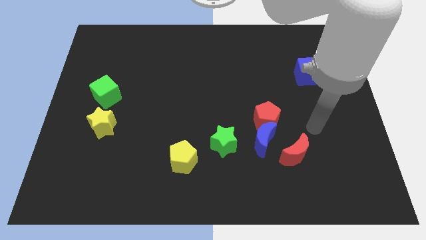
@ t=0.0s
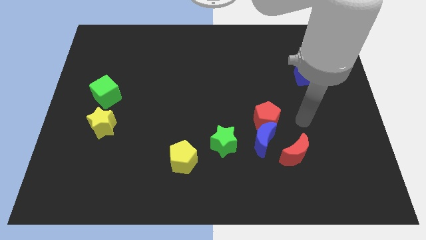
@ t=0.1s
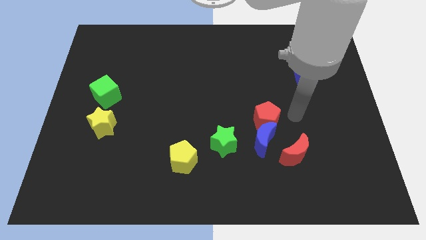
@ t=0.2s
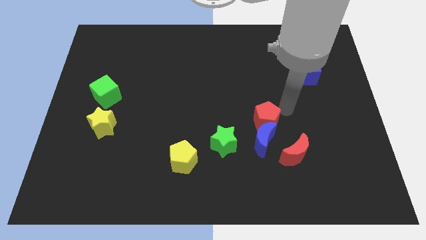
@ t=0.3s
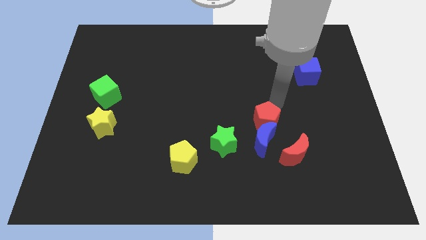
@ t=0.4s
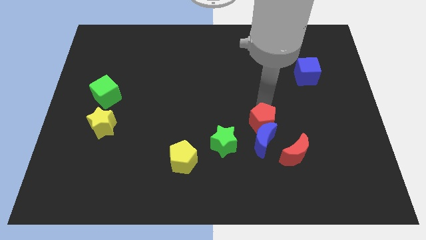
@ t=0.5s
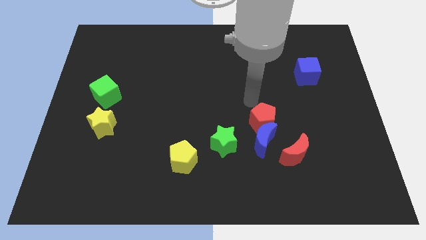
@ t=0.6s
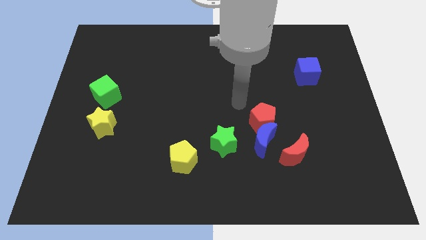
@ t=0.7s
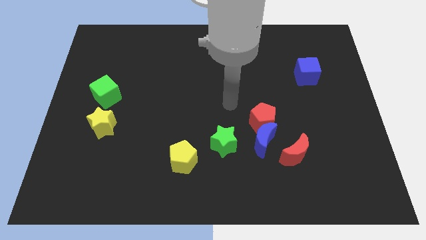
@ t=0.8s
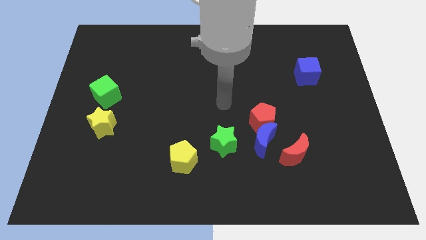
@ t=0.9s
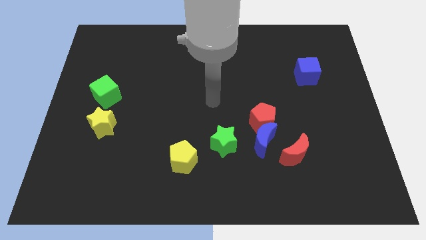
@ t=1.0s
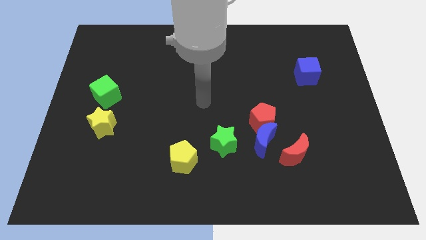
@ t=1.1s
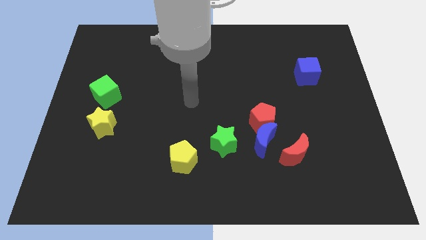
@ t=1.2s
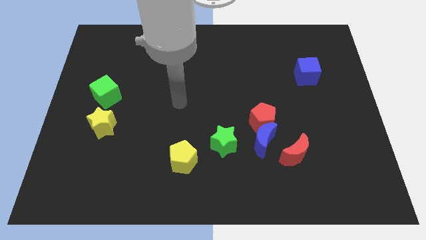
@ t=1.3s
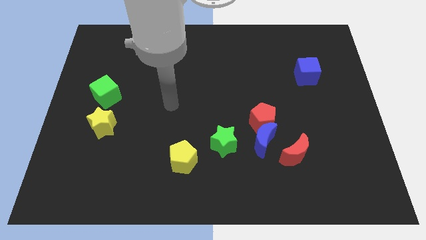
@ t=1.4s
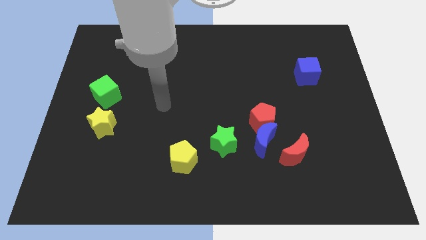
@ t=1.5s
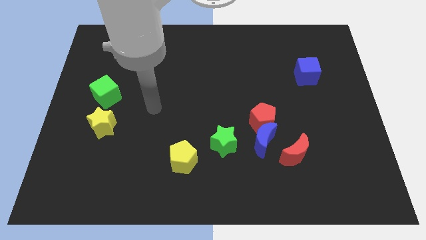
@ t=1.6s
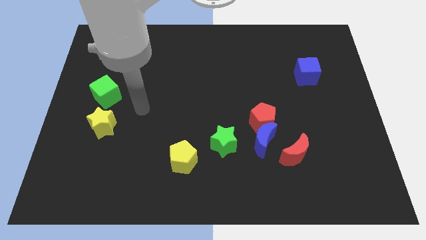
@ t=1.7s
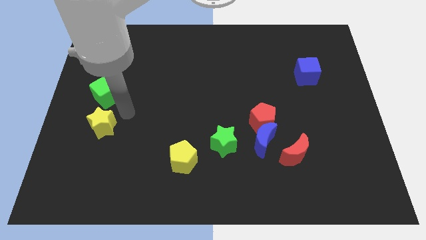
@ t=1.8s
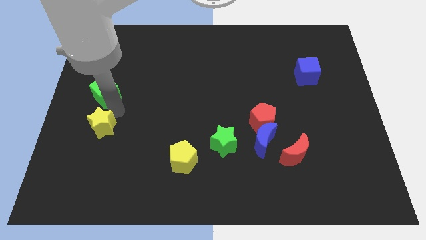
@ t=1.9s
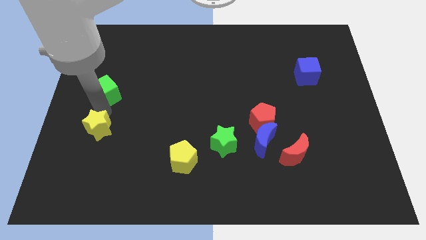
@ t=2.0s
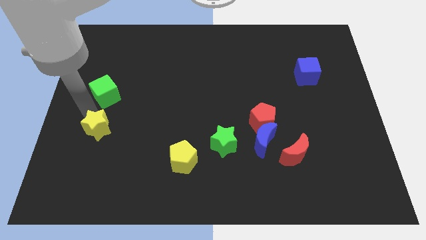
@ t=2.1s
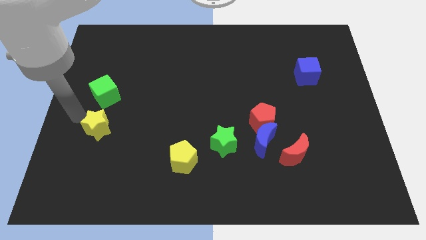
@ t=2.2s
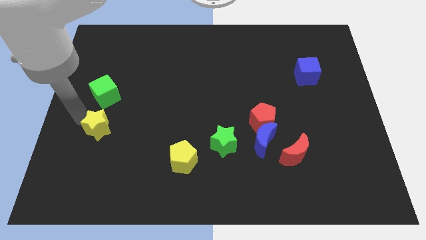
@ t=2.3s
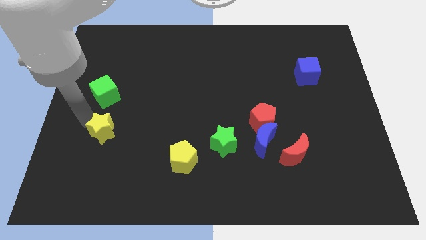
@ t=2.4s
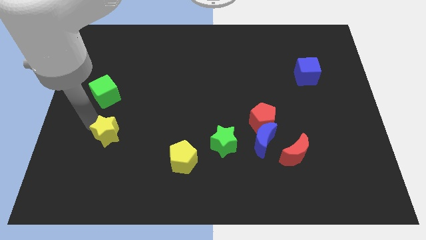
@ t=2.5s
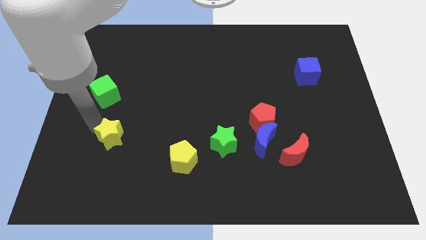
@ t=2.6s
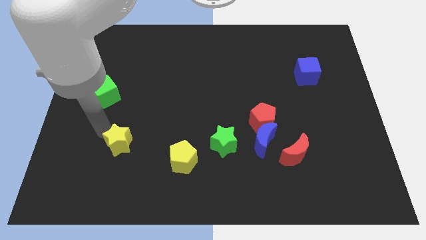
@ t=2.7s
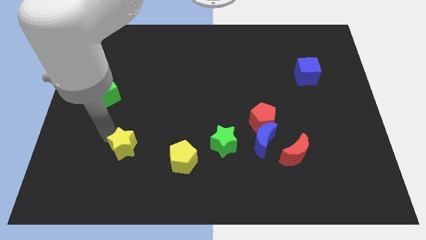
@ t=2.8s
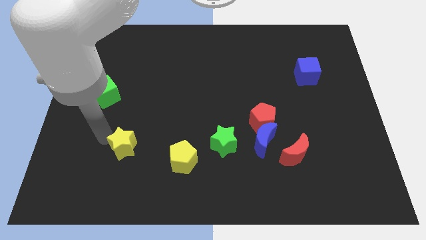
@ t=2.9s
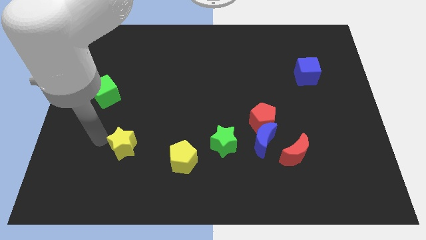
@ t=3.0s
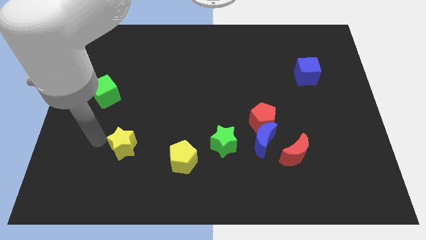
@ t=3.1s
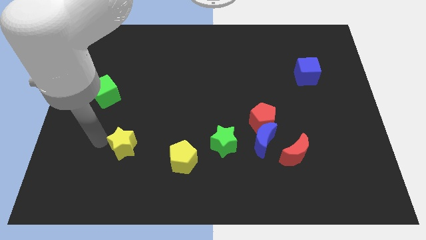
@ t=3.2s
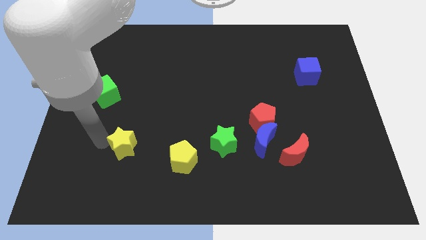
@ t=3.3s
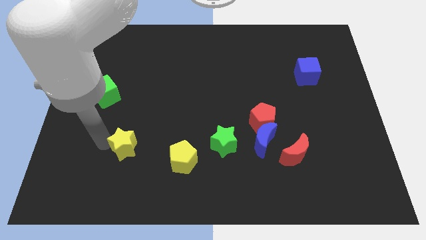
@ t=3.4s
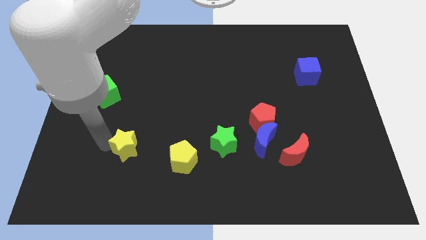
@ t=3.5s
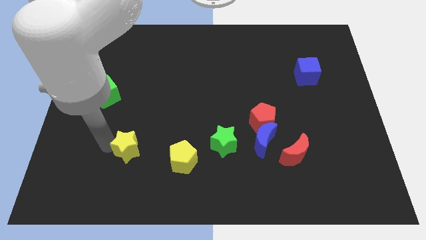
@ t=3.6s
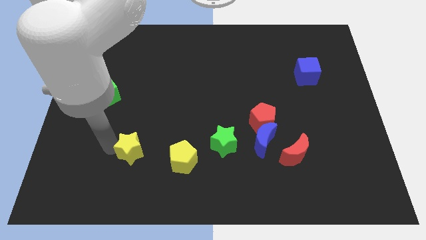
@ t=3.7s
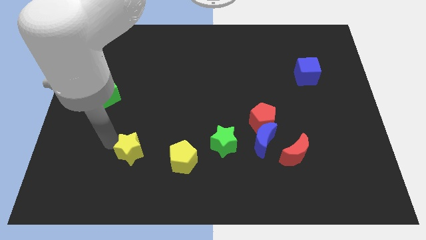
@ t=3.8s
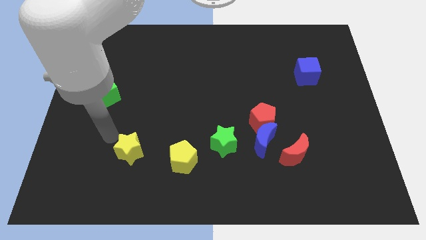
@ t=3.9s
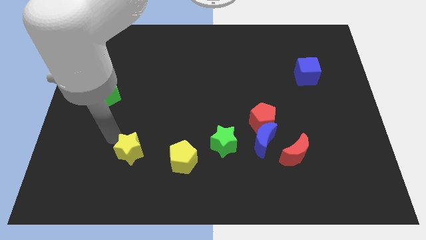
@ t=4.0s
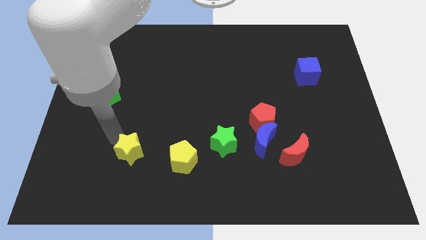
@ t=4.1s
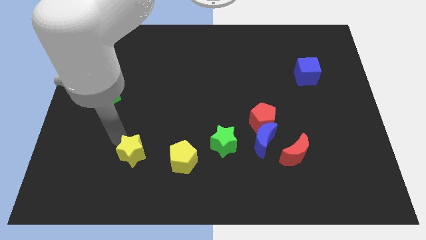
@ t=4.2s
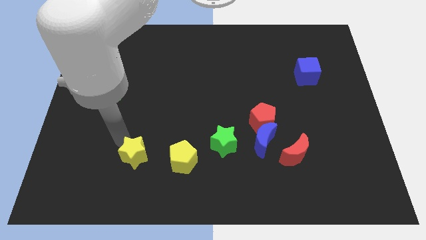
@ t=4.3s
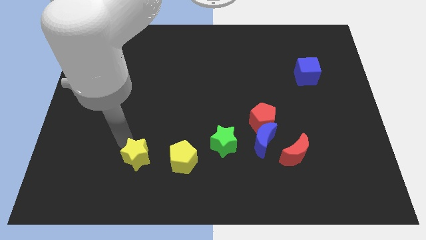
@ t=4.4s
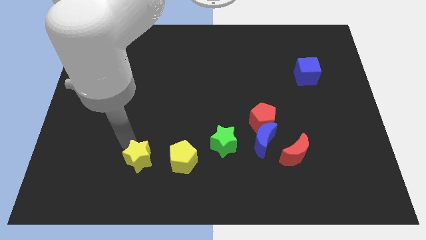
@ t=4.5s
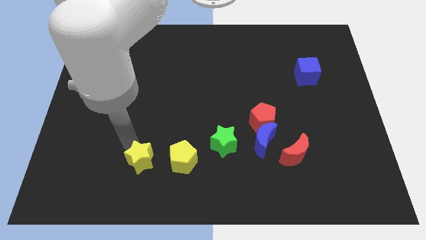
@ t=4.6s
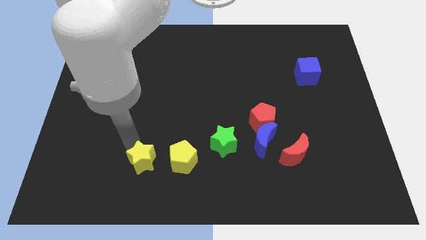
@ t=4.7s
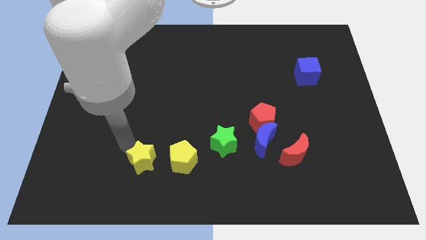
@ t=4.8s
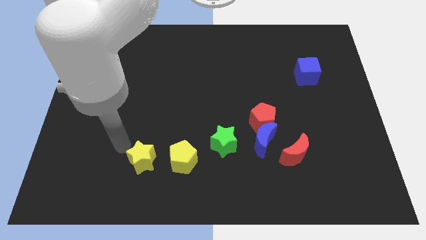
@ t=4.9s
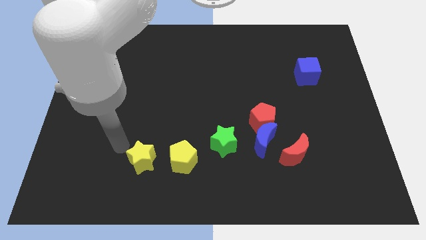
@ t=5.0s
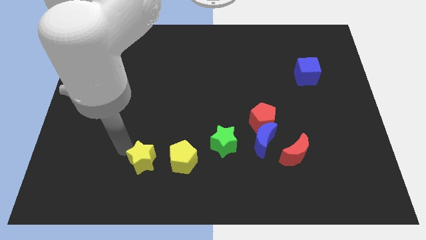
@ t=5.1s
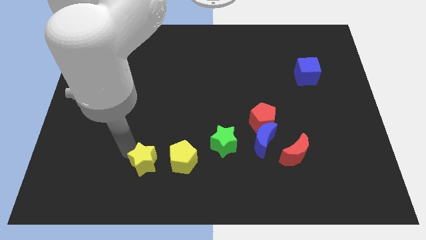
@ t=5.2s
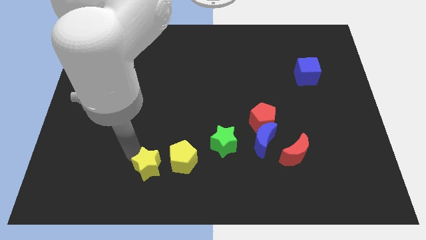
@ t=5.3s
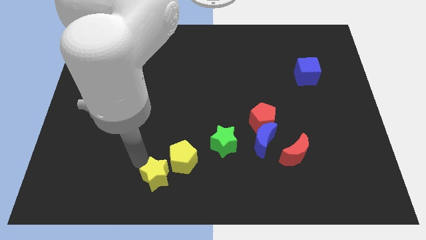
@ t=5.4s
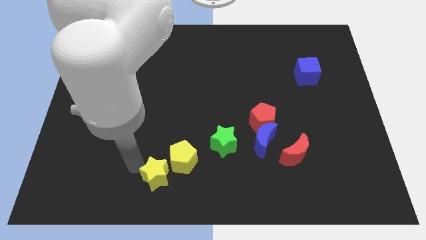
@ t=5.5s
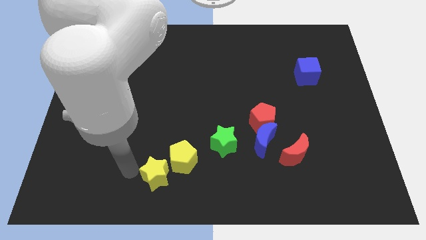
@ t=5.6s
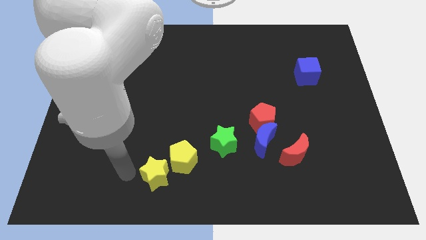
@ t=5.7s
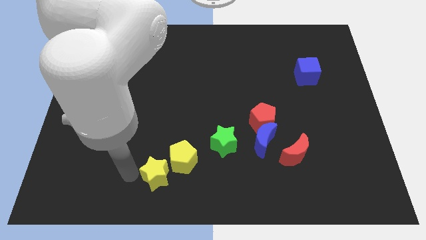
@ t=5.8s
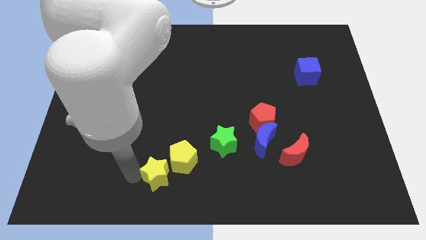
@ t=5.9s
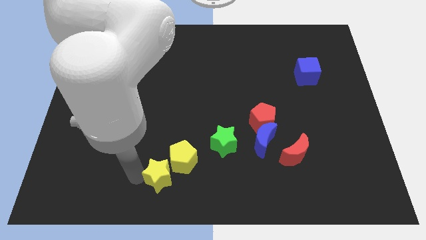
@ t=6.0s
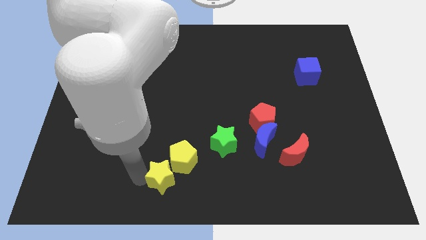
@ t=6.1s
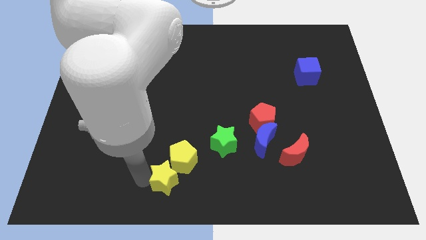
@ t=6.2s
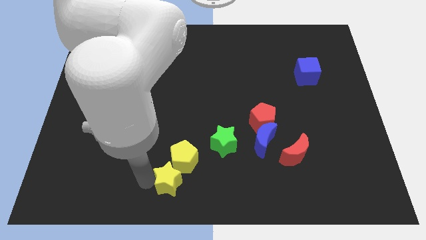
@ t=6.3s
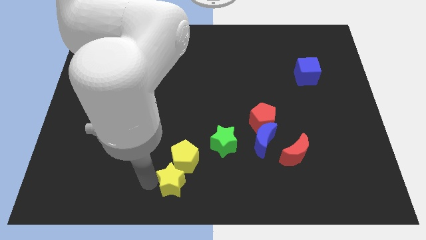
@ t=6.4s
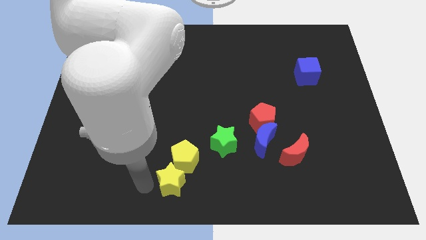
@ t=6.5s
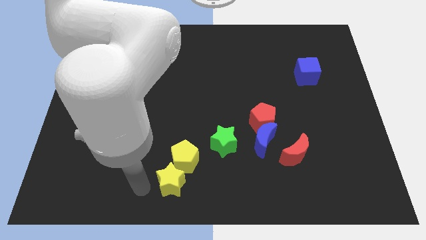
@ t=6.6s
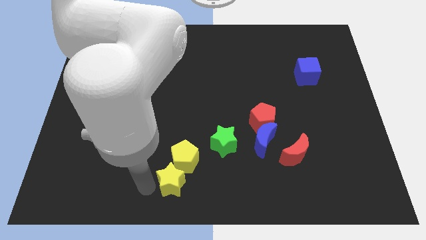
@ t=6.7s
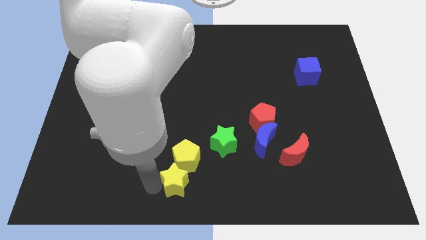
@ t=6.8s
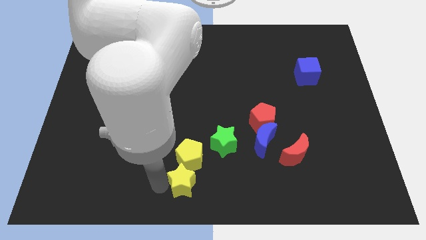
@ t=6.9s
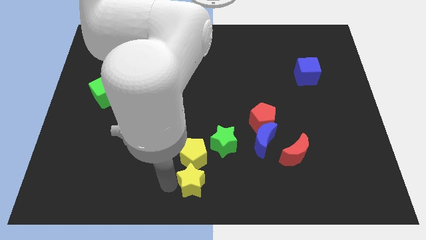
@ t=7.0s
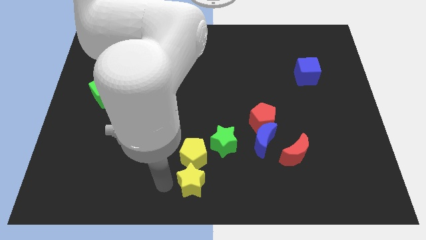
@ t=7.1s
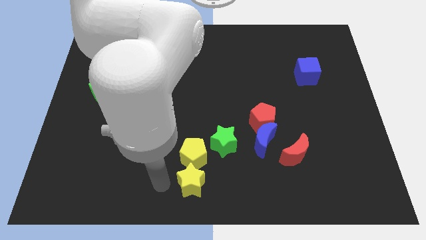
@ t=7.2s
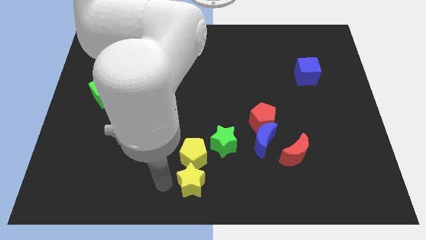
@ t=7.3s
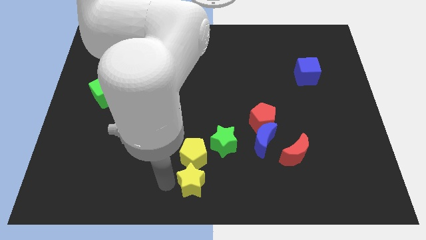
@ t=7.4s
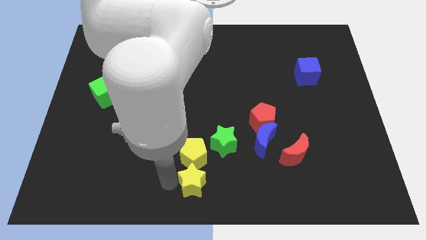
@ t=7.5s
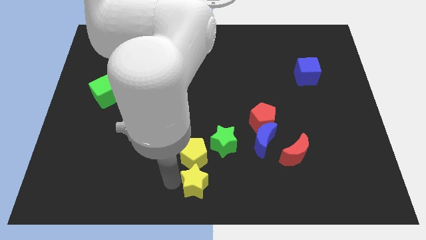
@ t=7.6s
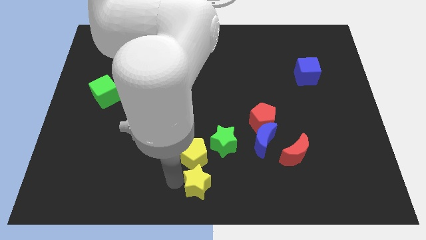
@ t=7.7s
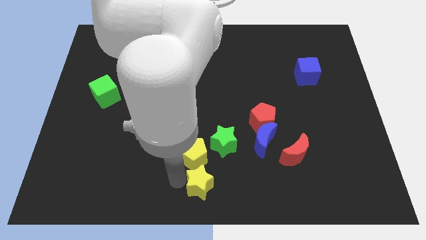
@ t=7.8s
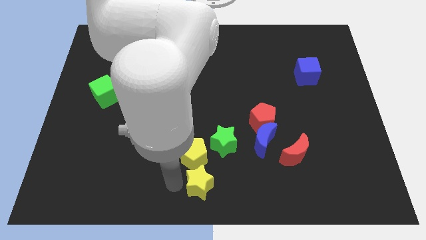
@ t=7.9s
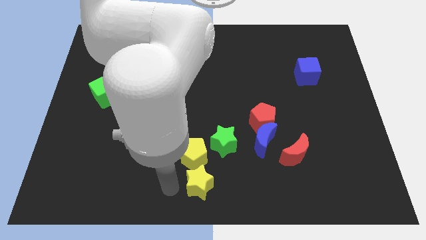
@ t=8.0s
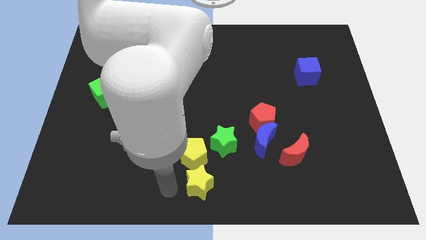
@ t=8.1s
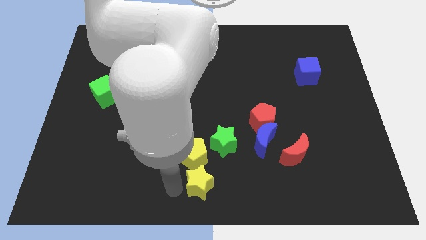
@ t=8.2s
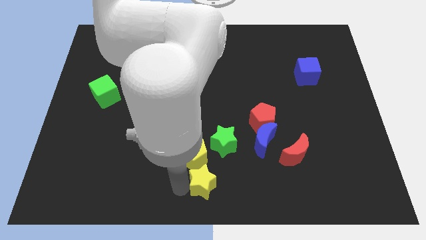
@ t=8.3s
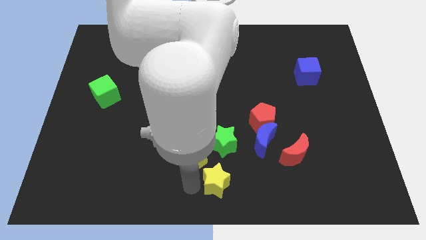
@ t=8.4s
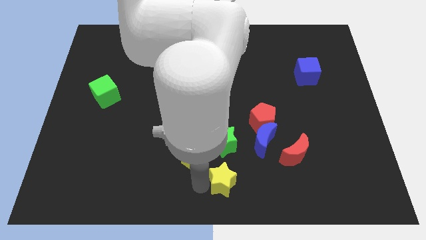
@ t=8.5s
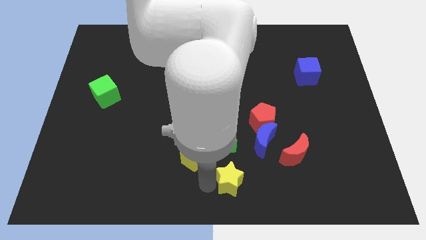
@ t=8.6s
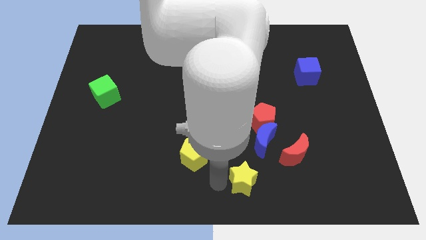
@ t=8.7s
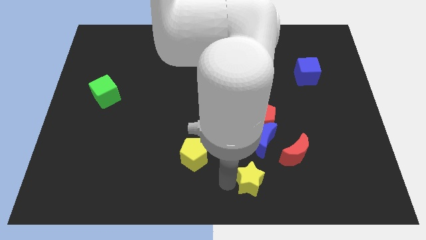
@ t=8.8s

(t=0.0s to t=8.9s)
put the yellow star to the bottom left side of the red moon
